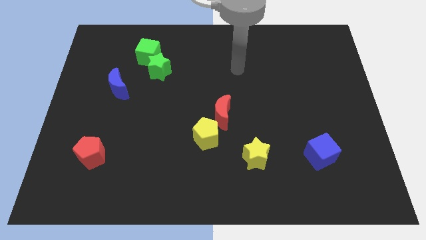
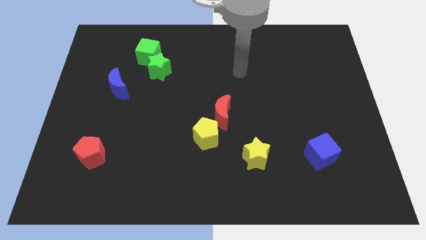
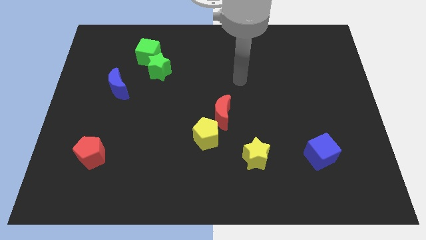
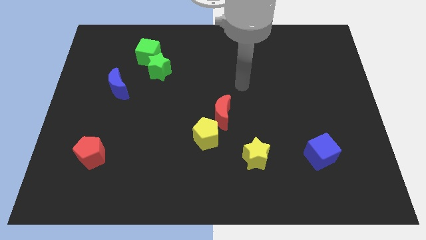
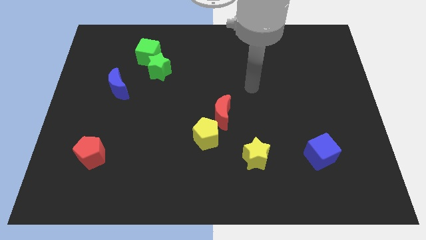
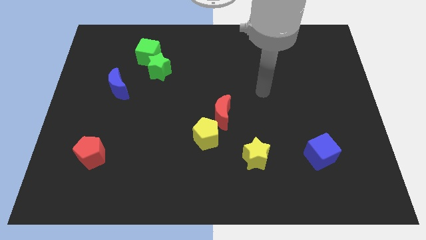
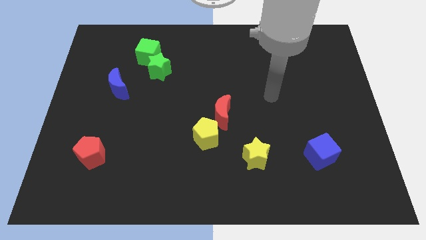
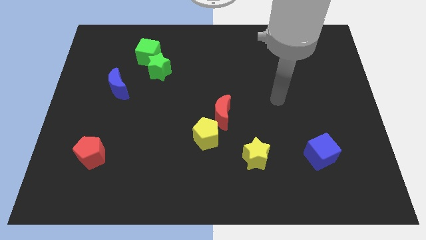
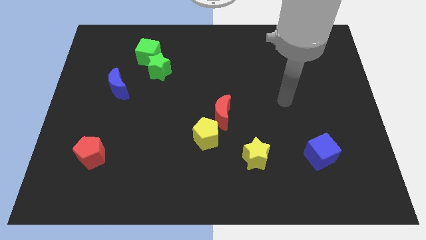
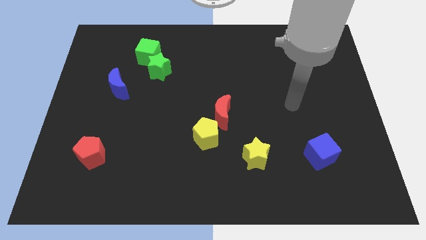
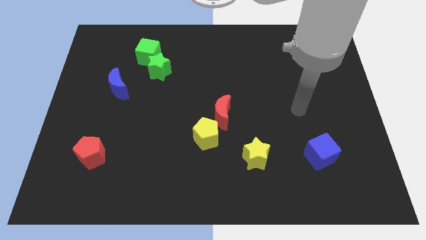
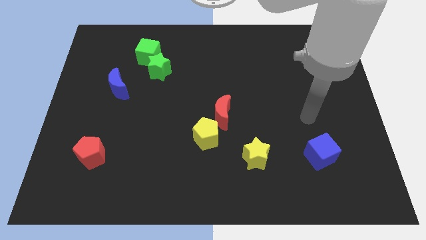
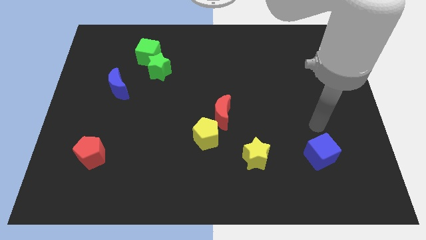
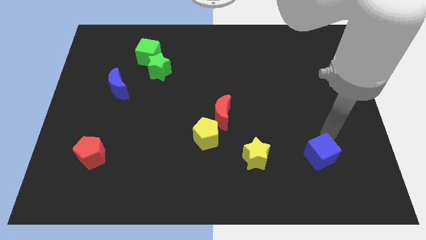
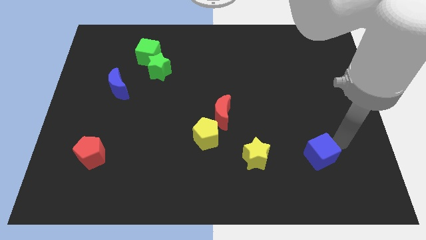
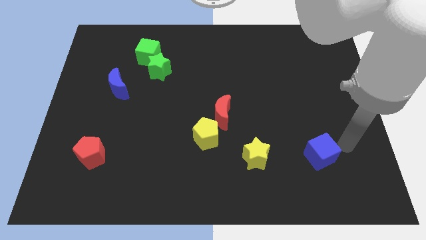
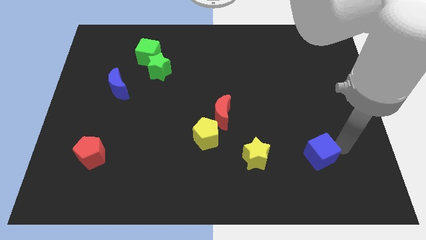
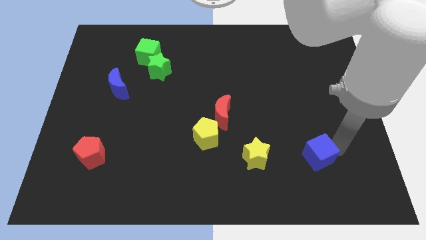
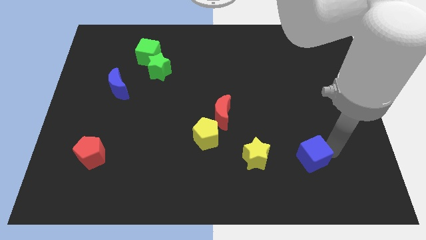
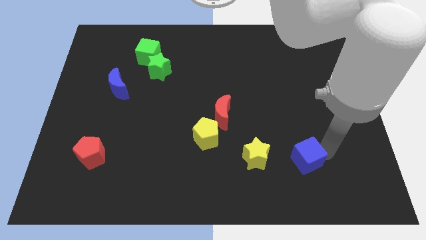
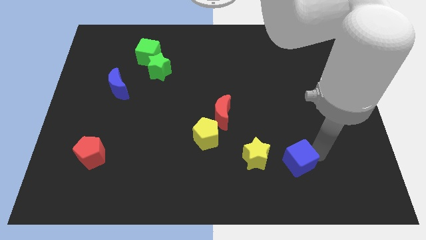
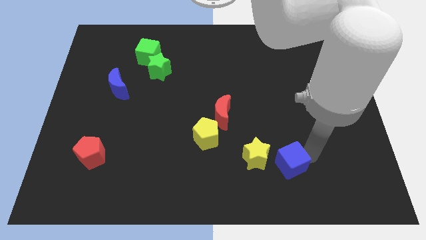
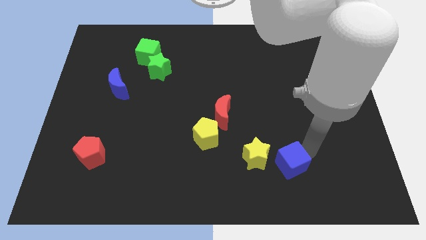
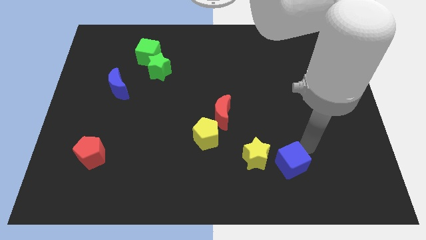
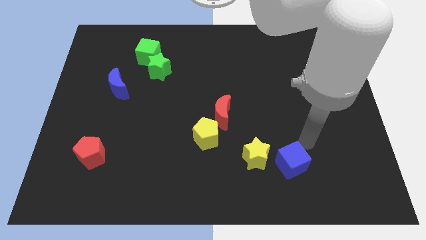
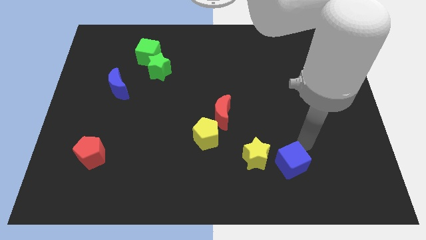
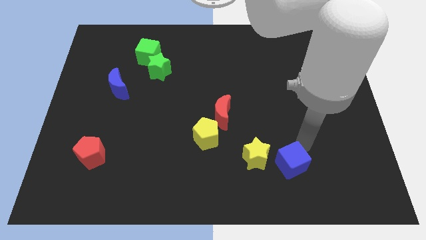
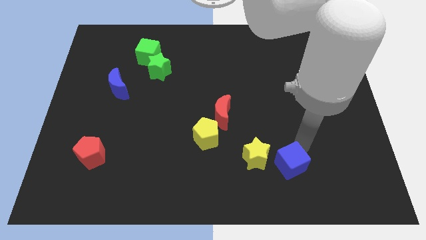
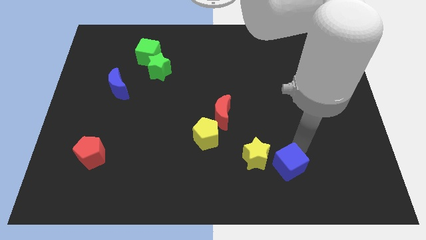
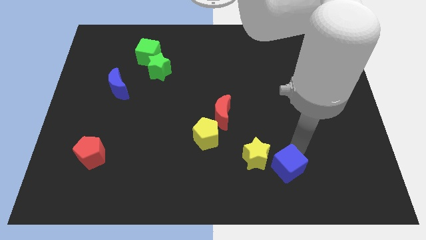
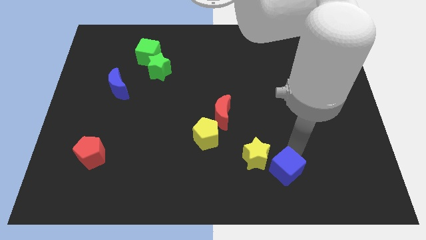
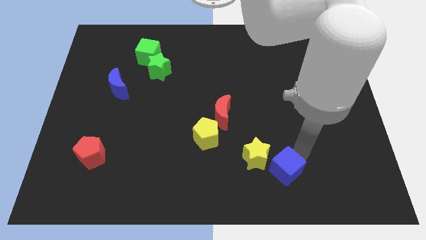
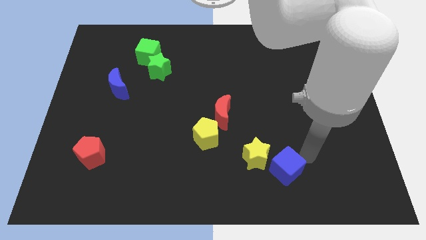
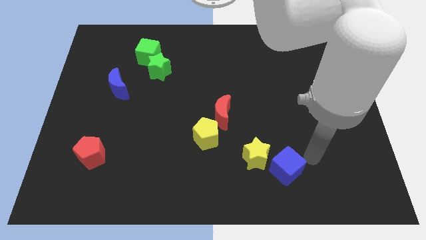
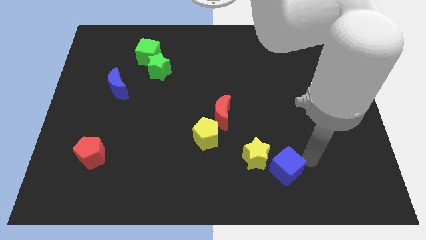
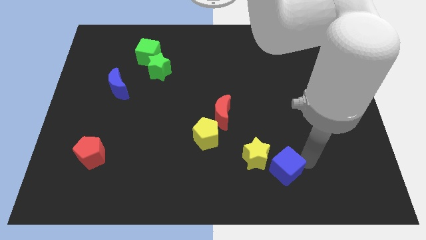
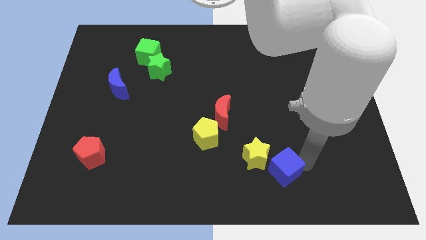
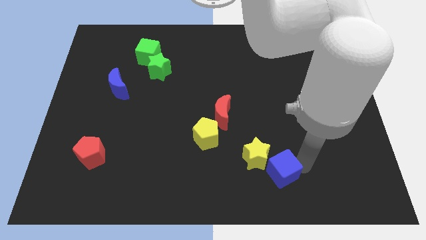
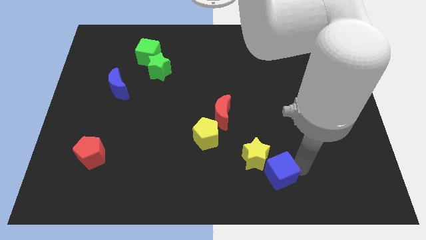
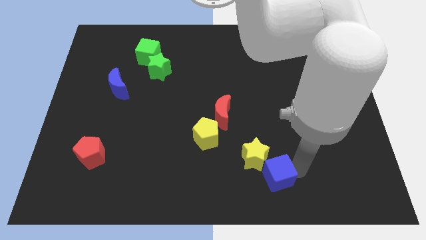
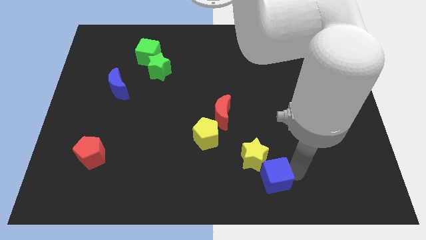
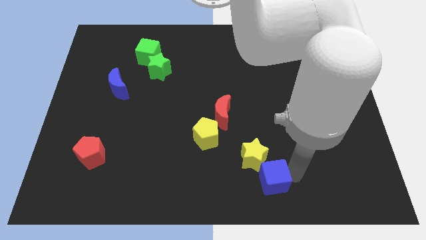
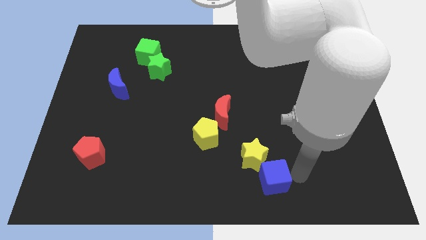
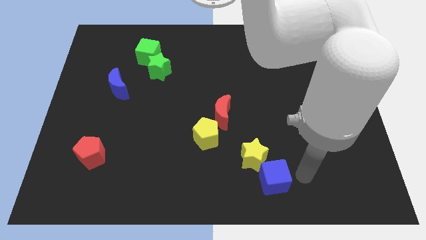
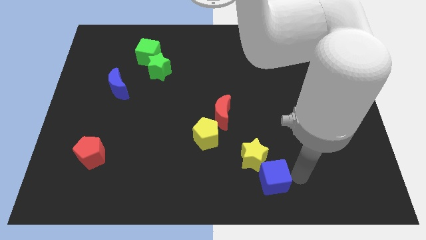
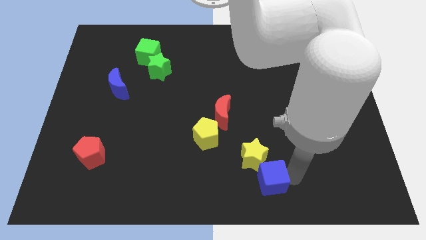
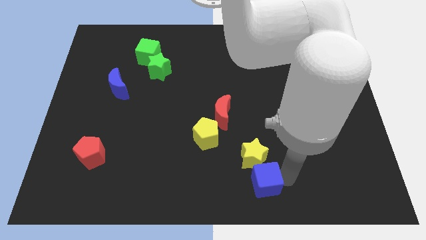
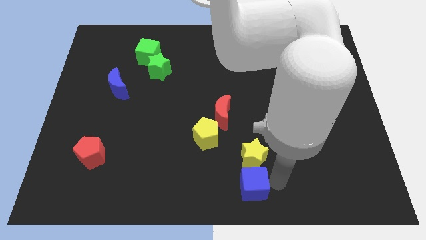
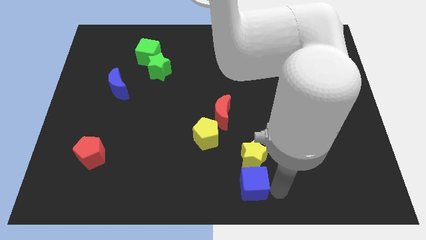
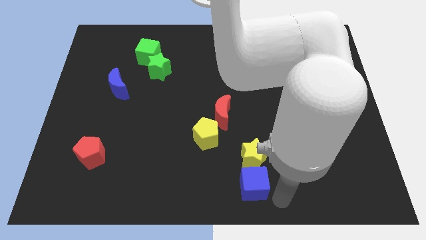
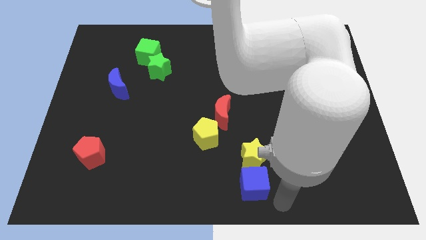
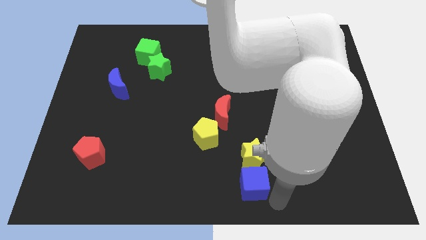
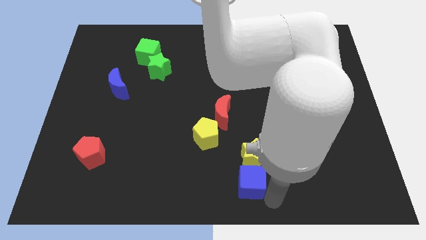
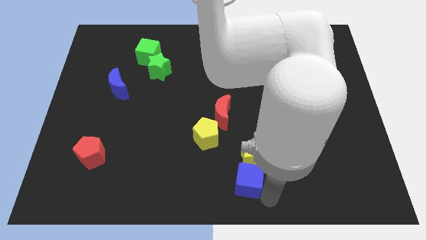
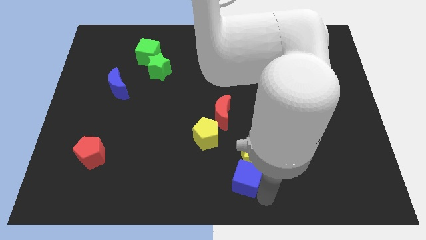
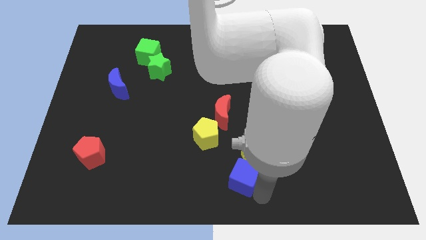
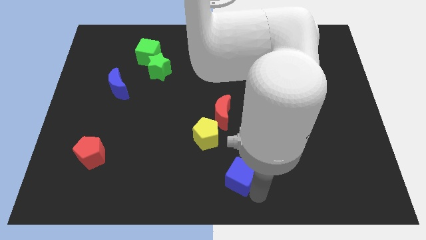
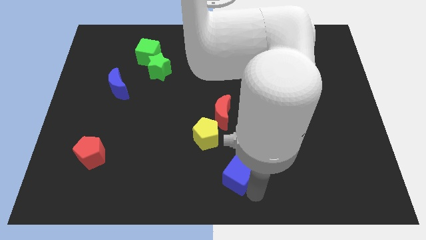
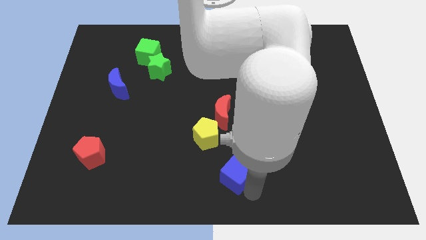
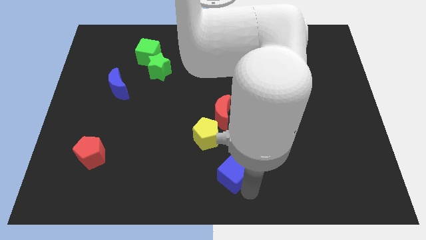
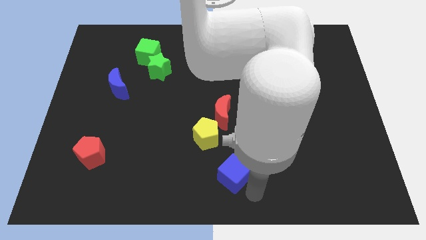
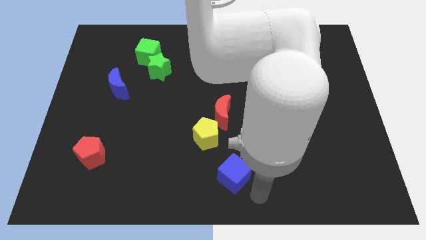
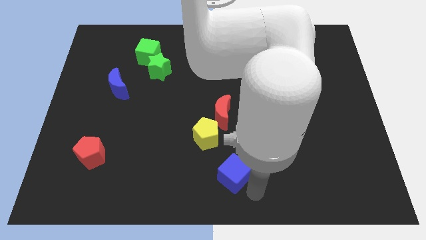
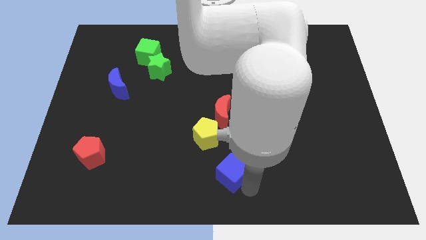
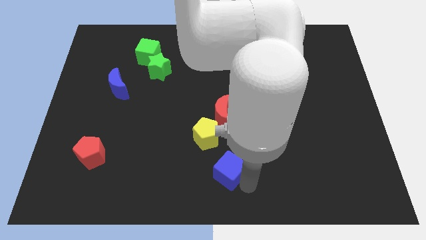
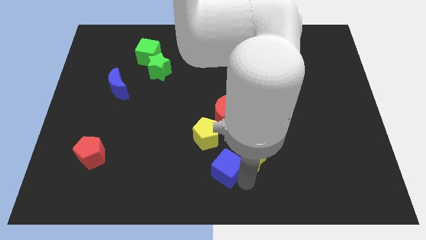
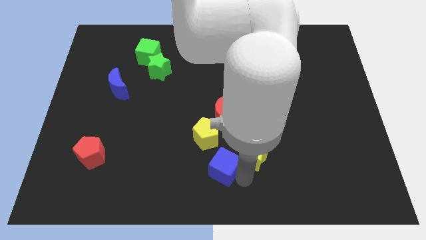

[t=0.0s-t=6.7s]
move the blue cube left

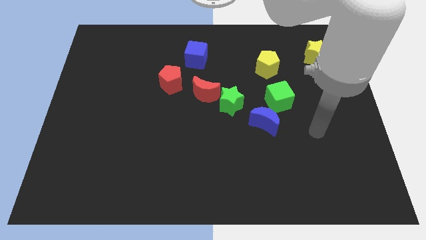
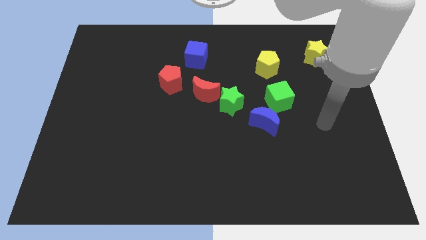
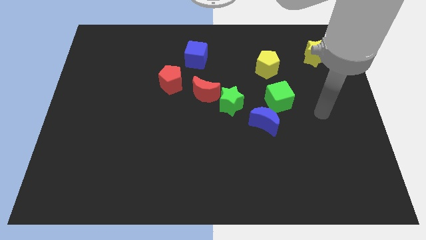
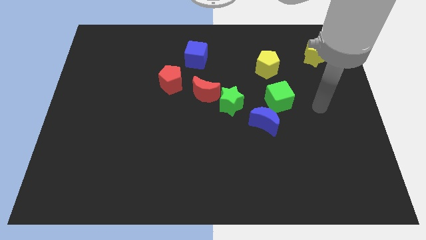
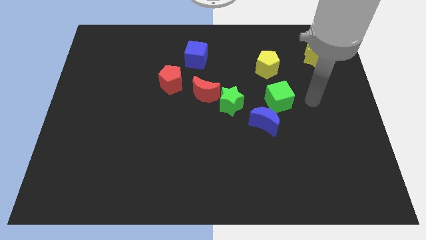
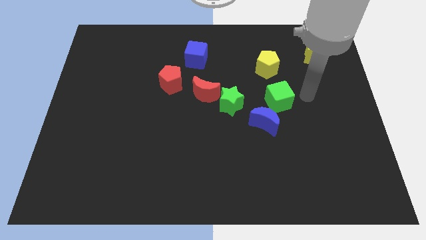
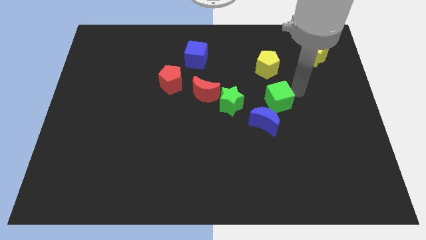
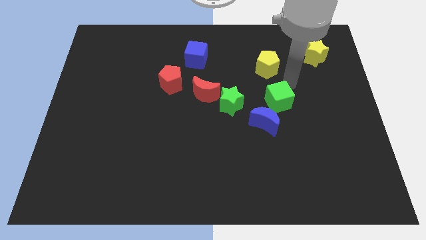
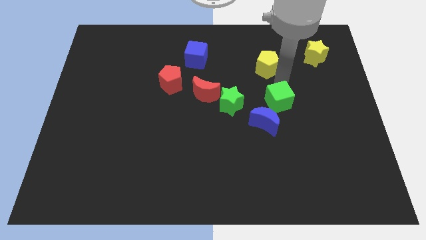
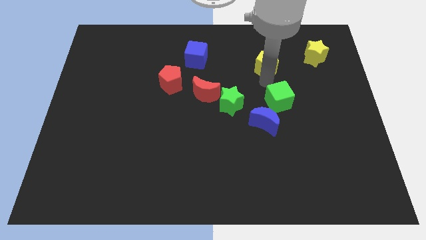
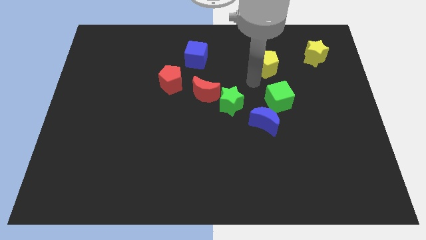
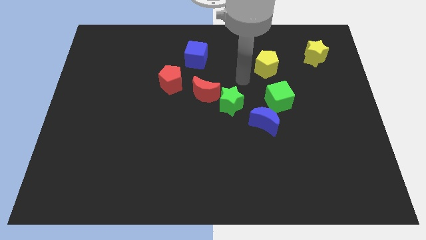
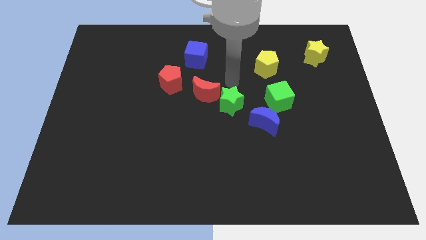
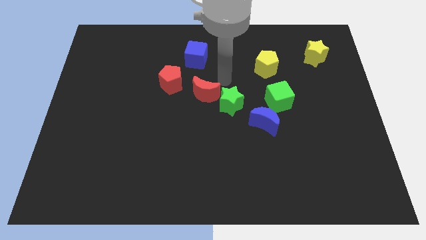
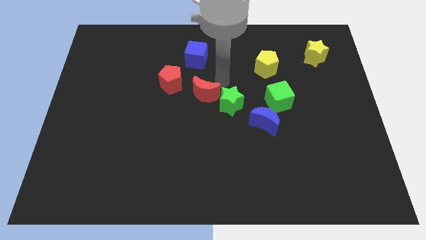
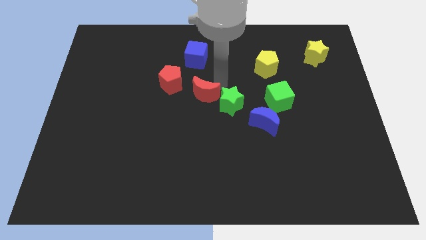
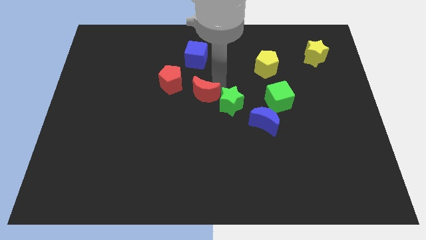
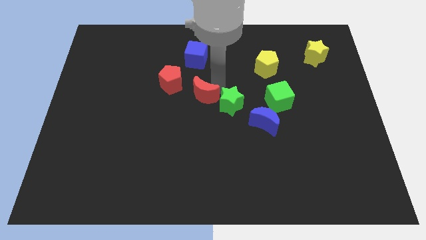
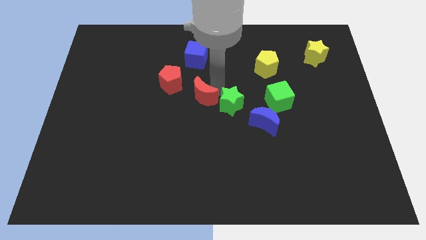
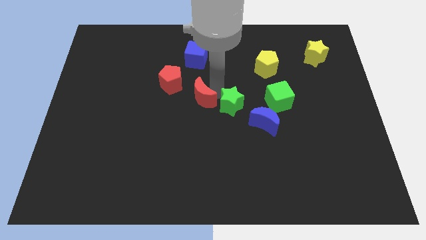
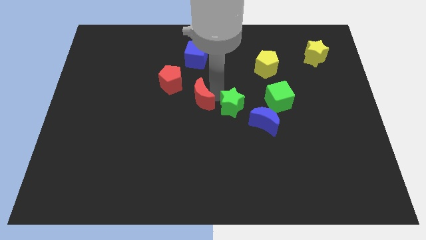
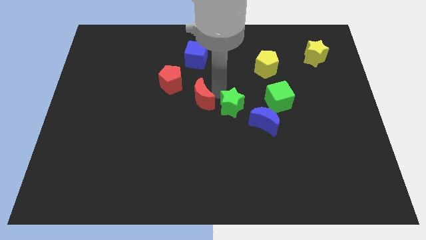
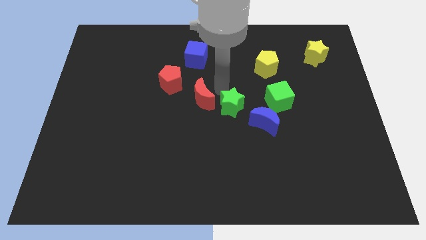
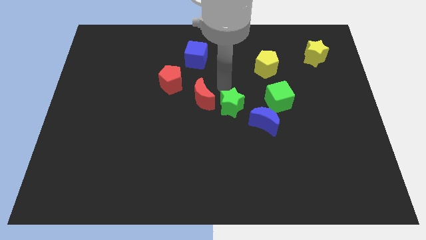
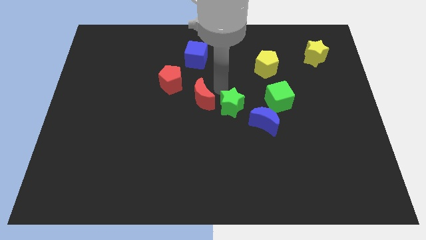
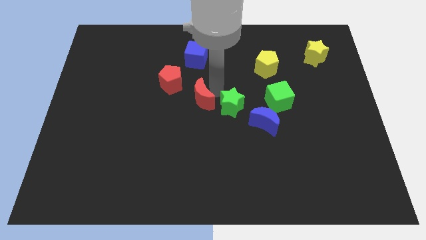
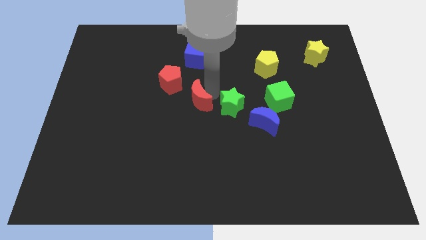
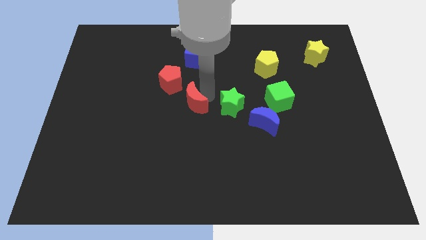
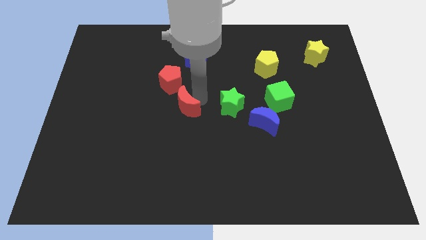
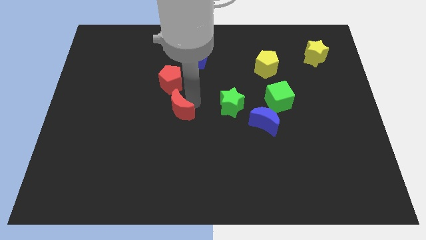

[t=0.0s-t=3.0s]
push the red moon slightly downwards and left
